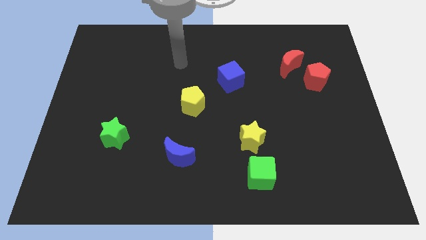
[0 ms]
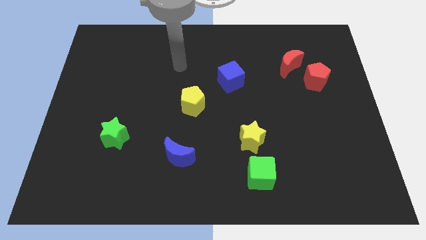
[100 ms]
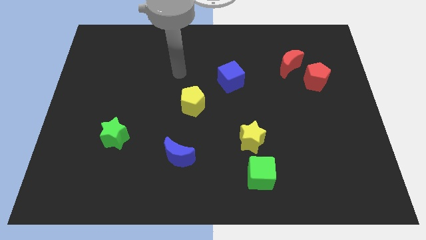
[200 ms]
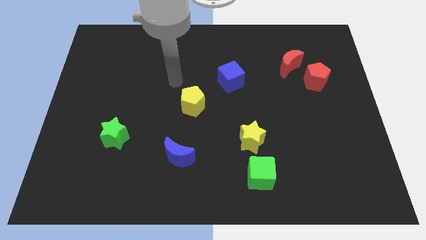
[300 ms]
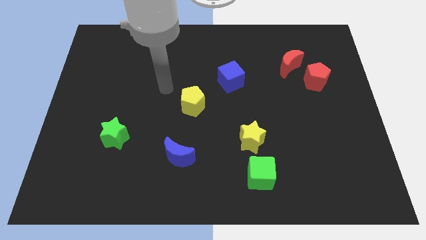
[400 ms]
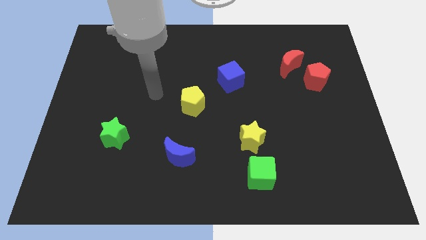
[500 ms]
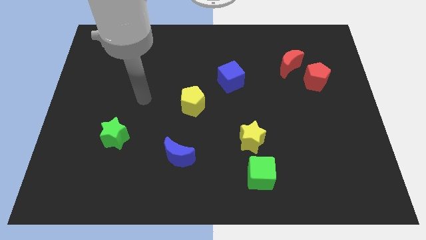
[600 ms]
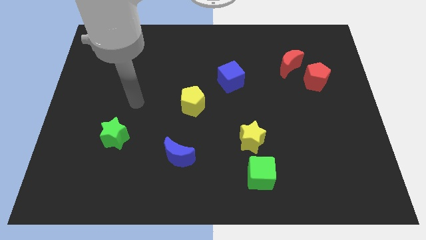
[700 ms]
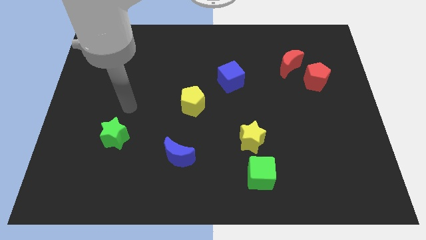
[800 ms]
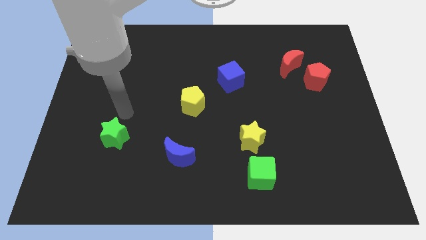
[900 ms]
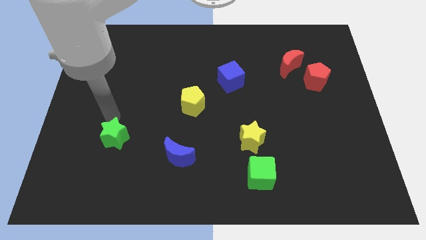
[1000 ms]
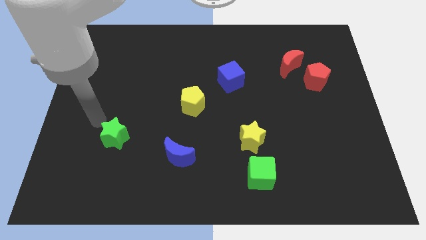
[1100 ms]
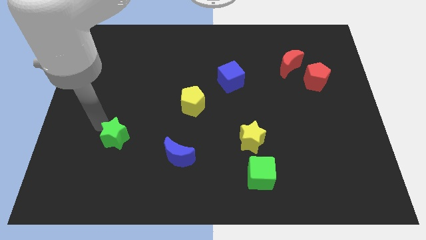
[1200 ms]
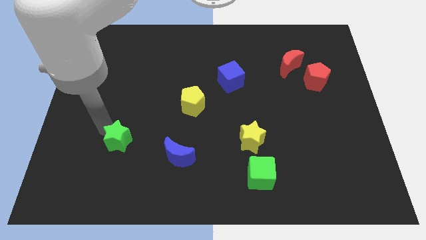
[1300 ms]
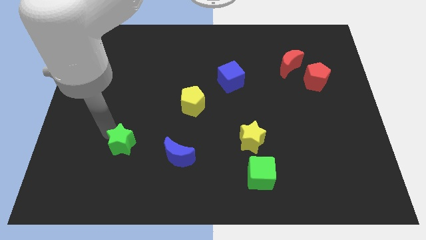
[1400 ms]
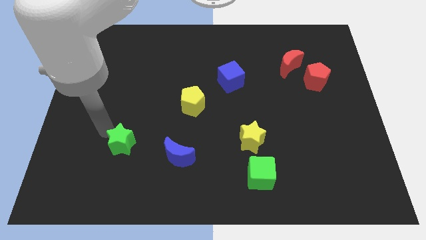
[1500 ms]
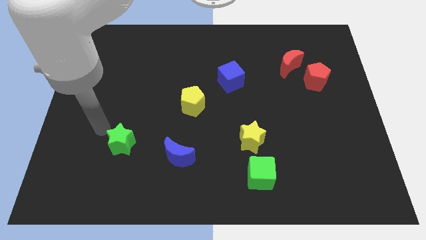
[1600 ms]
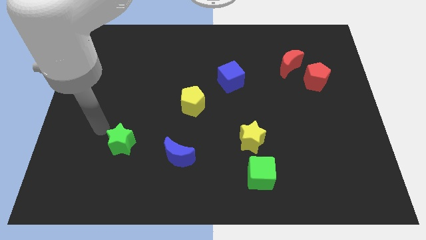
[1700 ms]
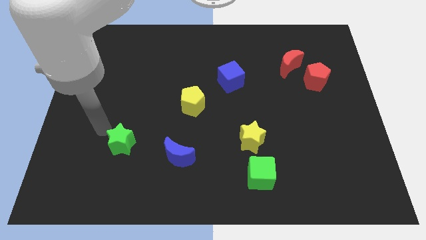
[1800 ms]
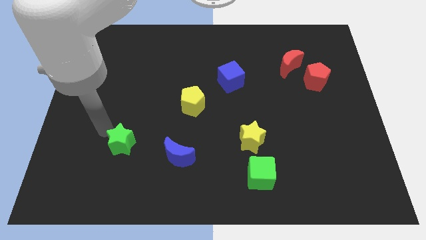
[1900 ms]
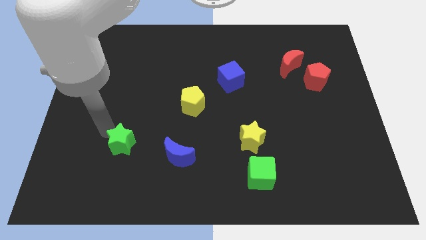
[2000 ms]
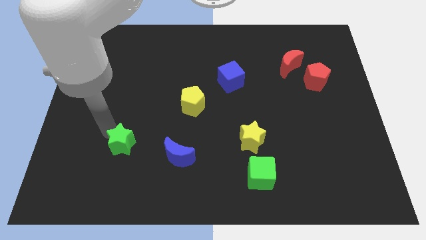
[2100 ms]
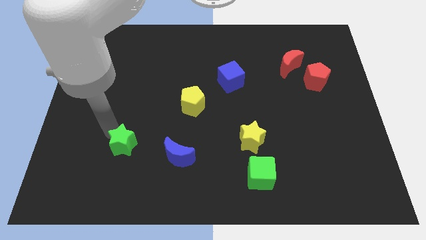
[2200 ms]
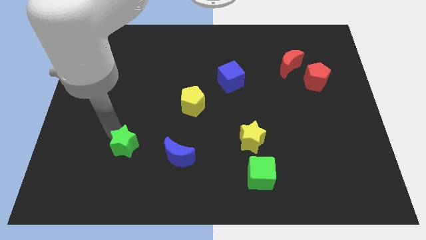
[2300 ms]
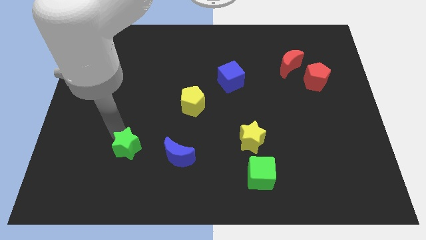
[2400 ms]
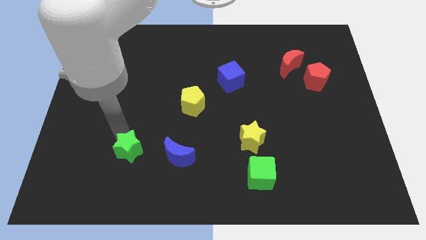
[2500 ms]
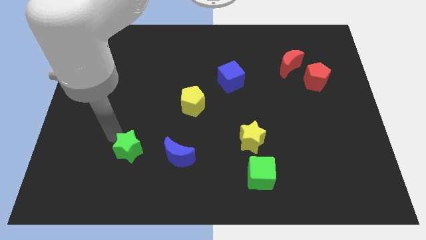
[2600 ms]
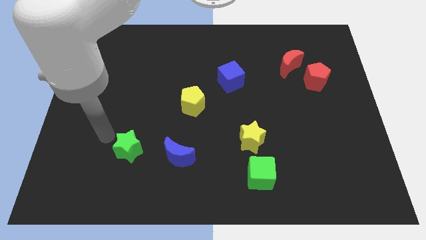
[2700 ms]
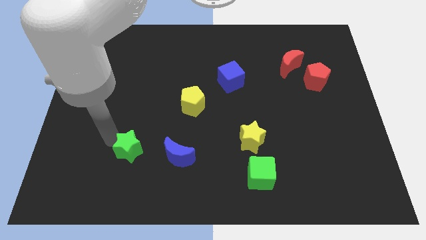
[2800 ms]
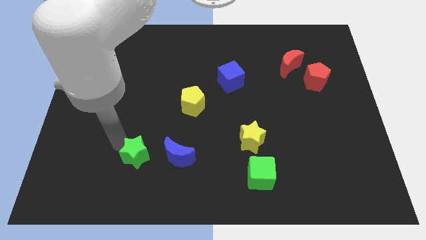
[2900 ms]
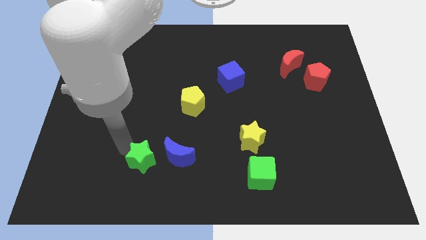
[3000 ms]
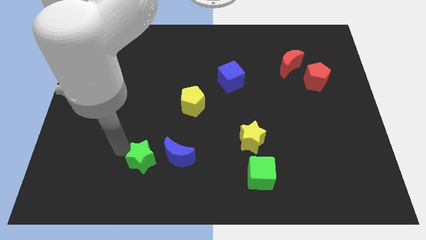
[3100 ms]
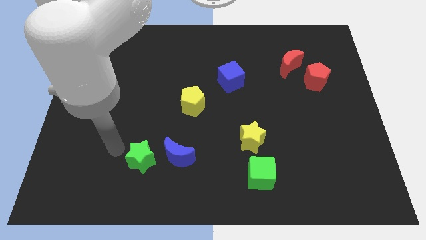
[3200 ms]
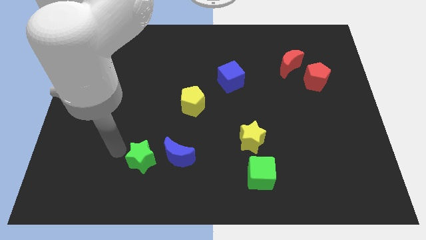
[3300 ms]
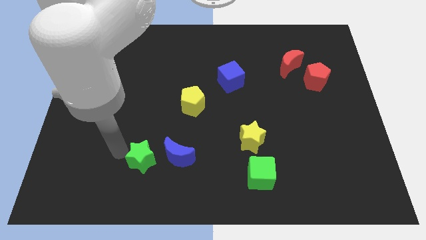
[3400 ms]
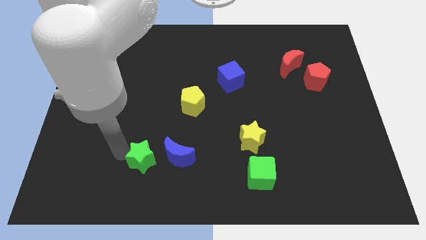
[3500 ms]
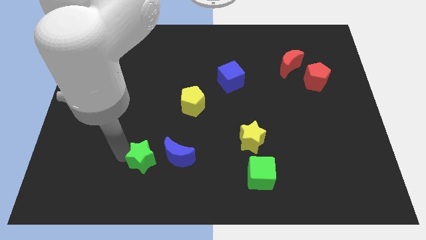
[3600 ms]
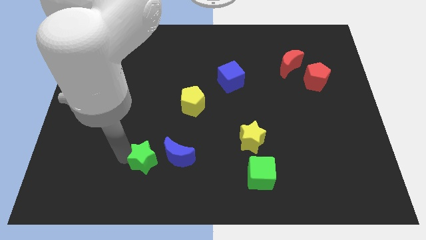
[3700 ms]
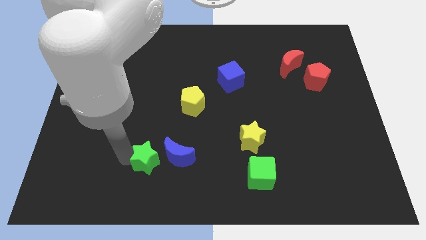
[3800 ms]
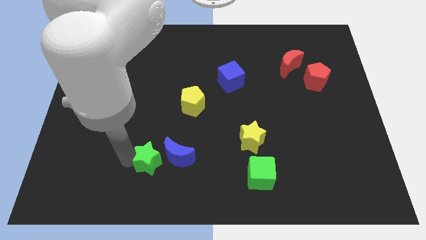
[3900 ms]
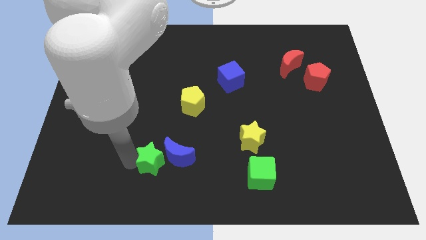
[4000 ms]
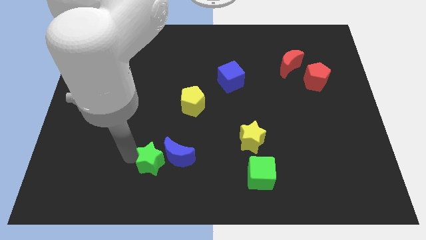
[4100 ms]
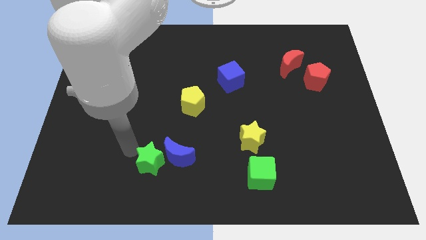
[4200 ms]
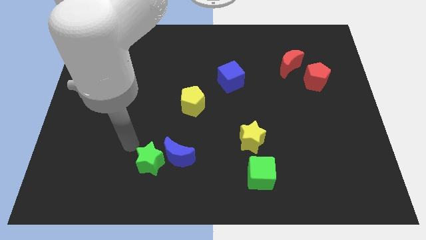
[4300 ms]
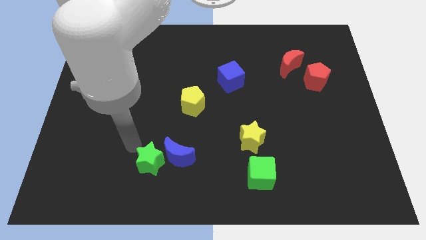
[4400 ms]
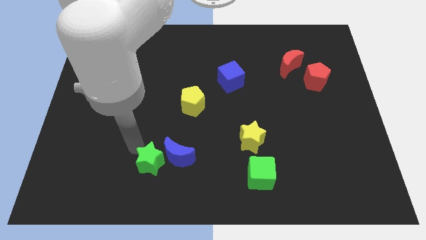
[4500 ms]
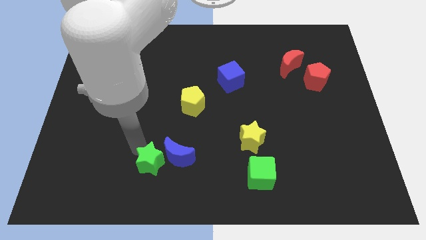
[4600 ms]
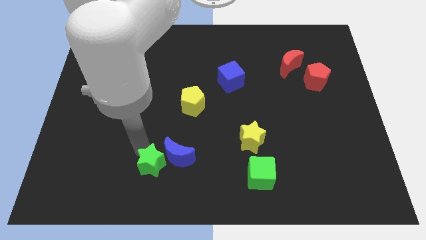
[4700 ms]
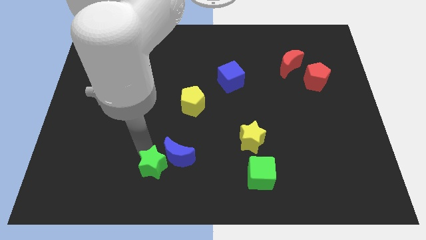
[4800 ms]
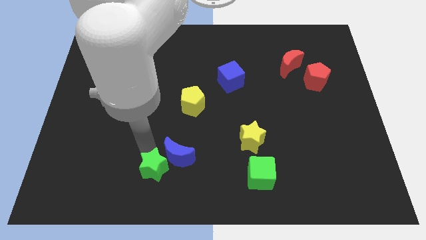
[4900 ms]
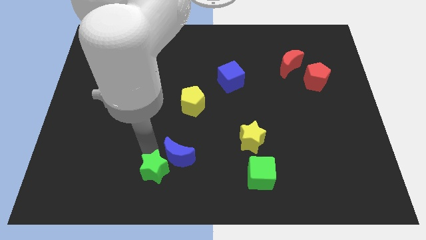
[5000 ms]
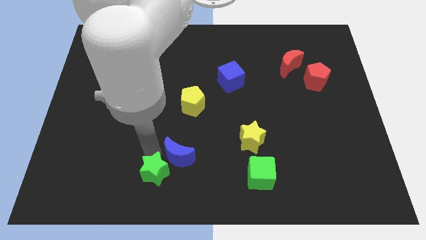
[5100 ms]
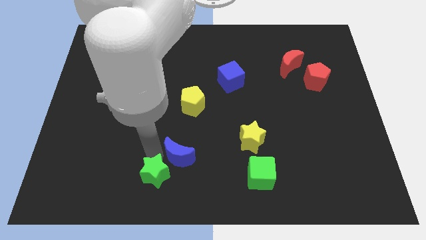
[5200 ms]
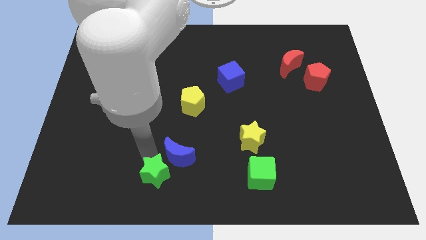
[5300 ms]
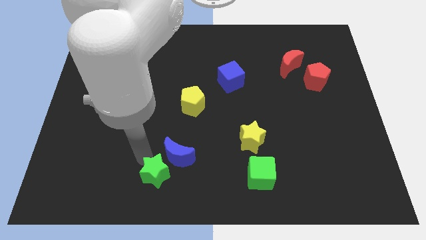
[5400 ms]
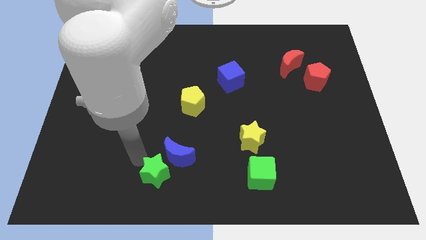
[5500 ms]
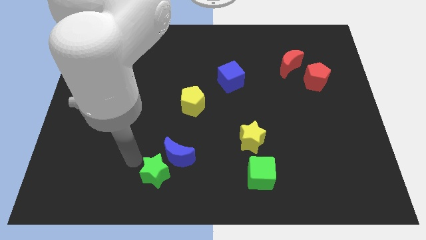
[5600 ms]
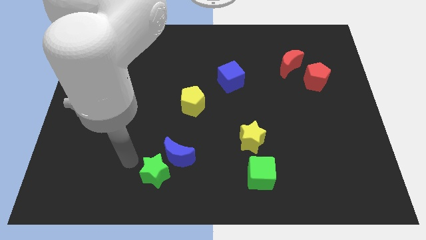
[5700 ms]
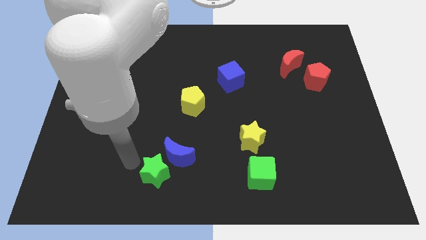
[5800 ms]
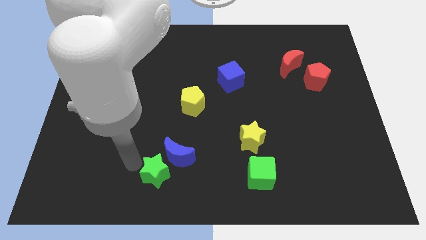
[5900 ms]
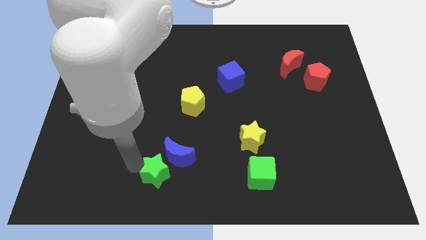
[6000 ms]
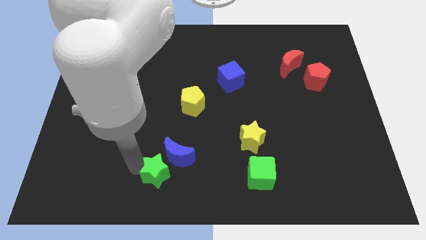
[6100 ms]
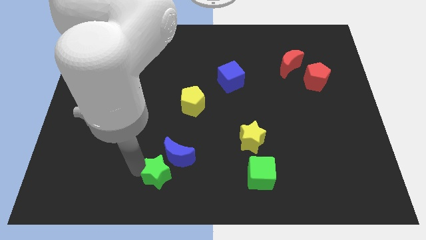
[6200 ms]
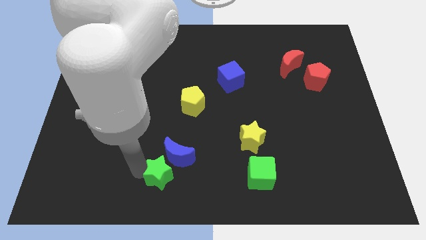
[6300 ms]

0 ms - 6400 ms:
move the green star to the bottom side

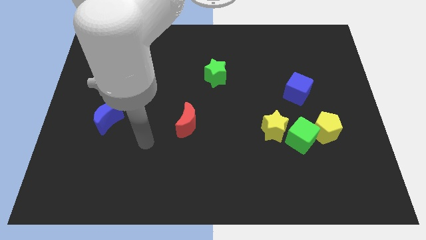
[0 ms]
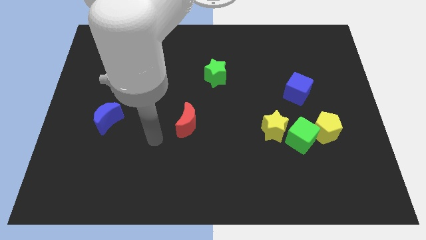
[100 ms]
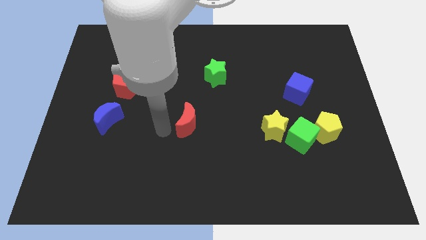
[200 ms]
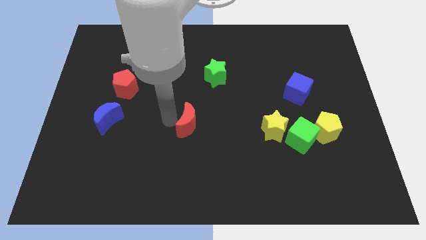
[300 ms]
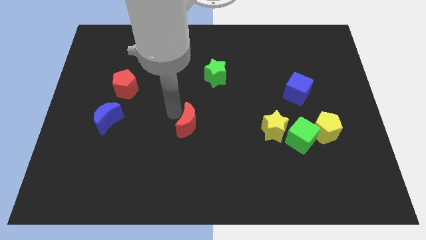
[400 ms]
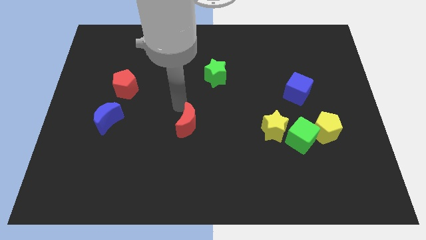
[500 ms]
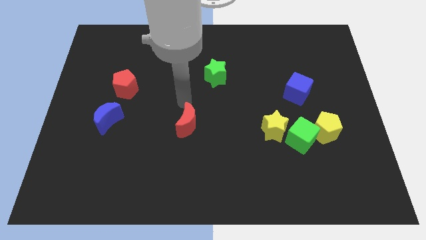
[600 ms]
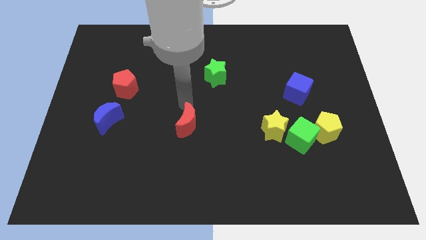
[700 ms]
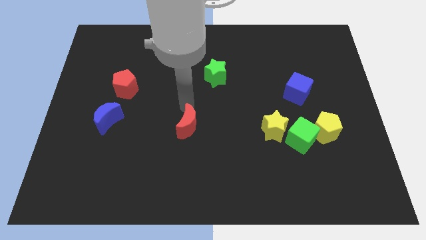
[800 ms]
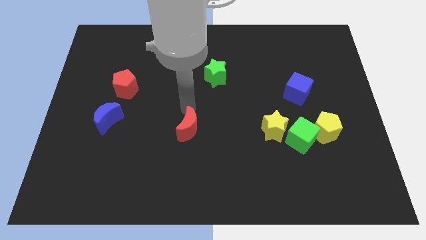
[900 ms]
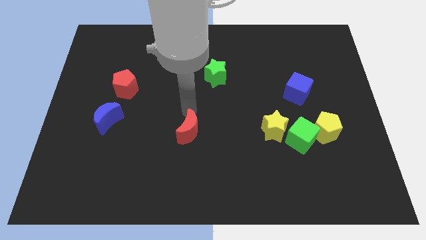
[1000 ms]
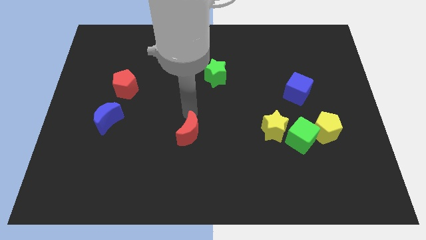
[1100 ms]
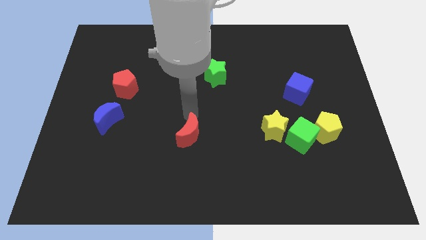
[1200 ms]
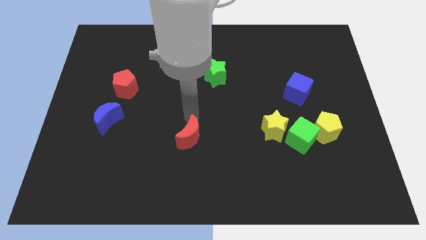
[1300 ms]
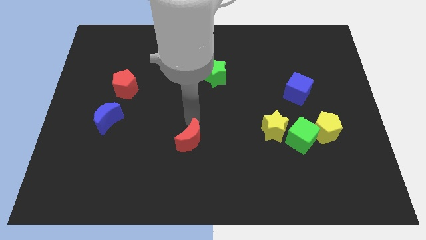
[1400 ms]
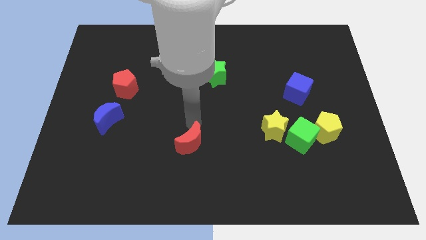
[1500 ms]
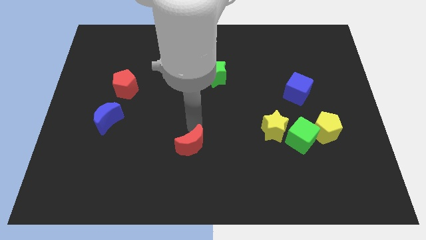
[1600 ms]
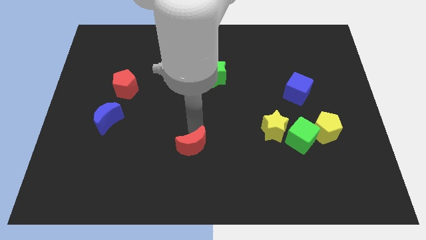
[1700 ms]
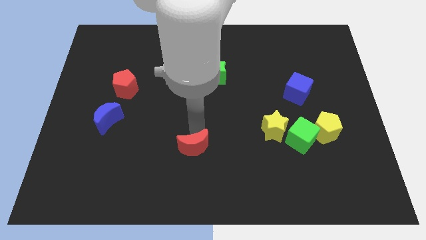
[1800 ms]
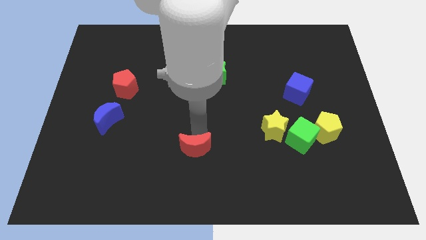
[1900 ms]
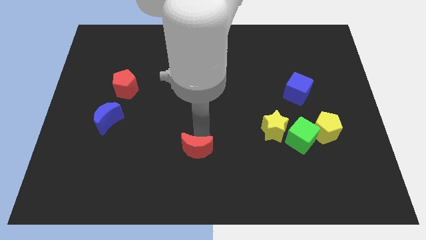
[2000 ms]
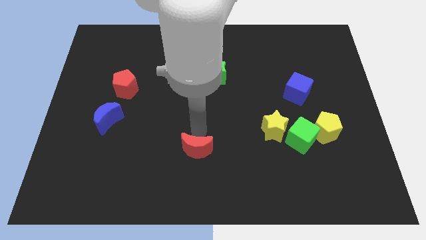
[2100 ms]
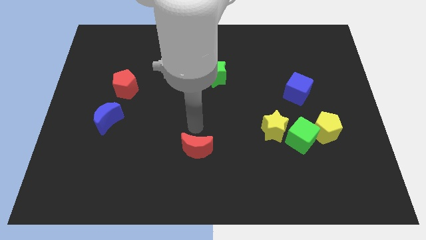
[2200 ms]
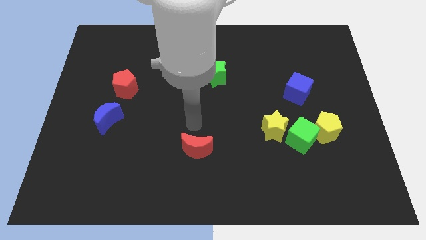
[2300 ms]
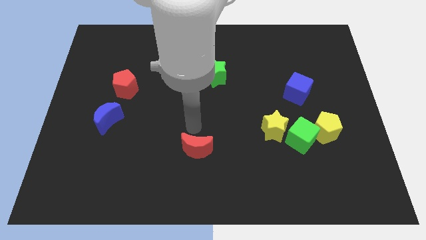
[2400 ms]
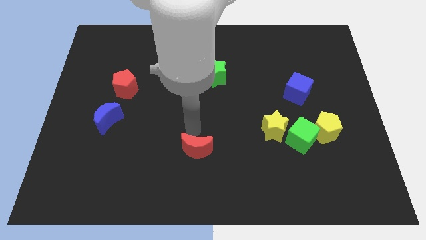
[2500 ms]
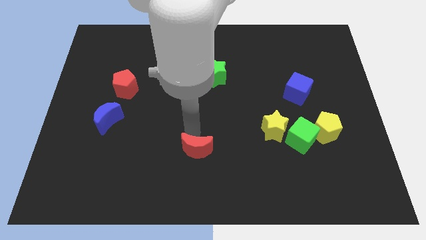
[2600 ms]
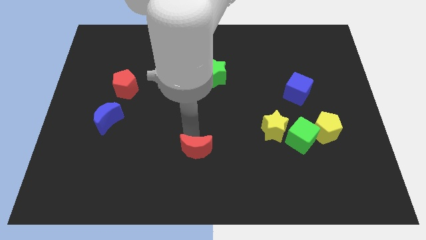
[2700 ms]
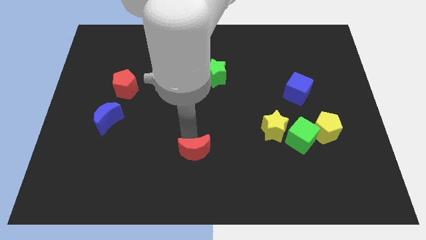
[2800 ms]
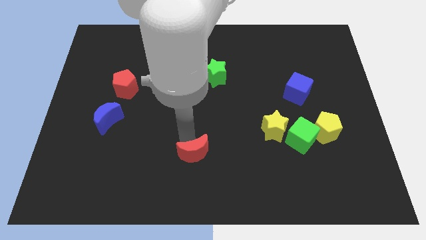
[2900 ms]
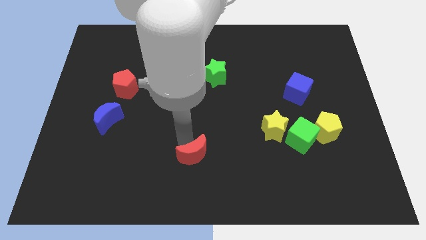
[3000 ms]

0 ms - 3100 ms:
move the red moon to the bottom side
